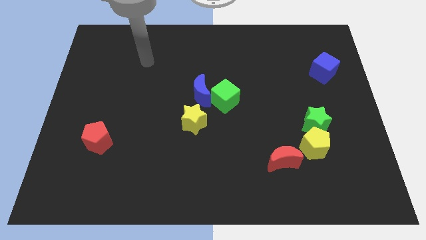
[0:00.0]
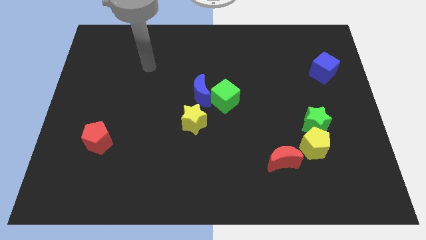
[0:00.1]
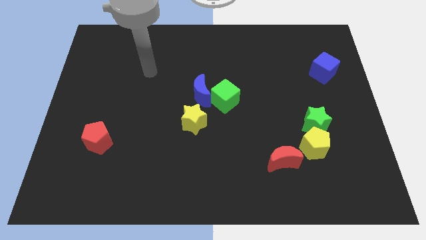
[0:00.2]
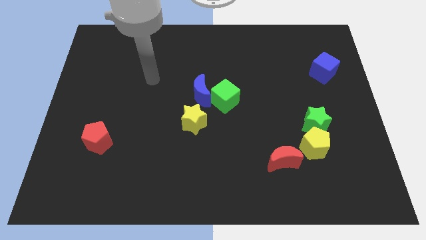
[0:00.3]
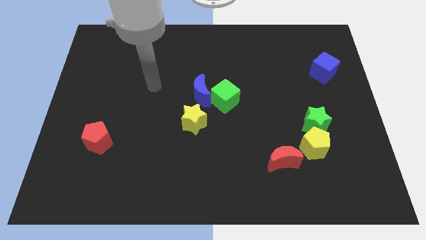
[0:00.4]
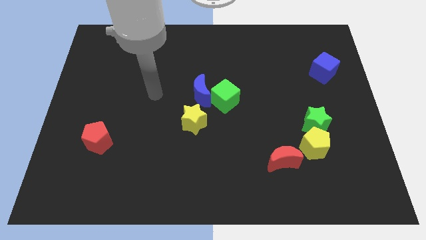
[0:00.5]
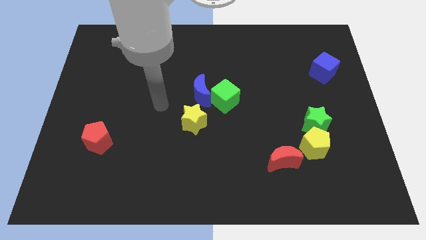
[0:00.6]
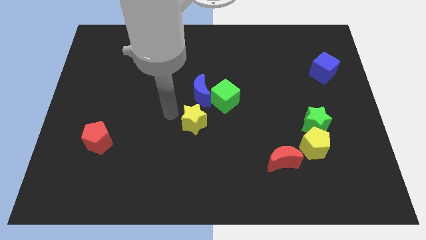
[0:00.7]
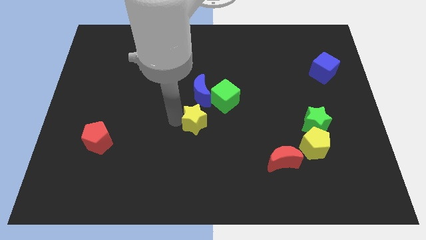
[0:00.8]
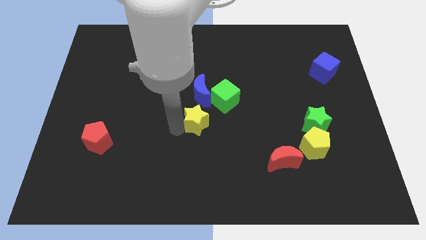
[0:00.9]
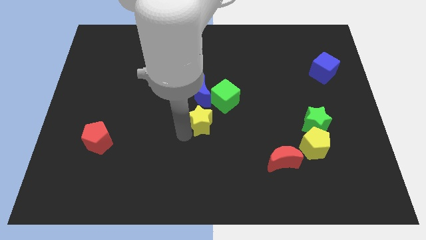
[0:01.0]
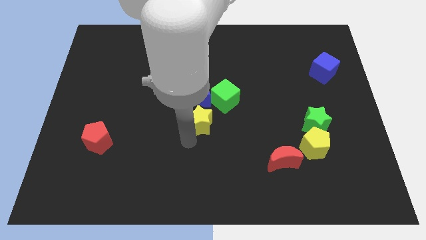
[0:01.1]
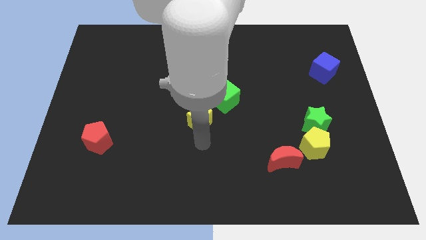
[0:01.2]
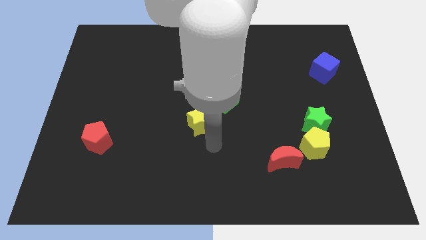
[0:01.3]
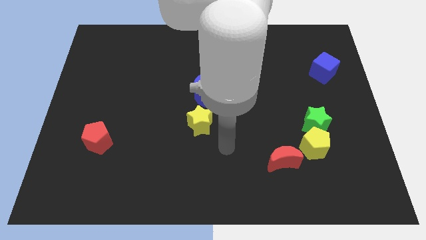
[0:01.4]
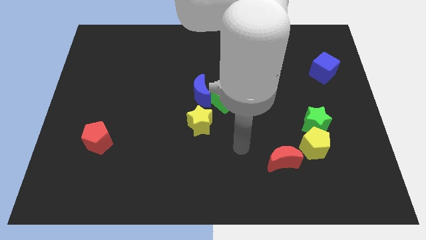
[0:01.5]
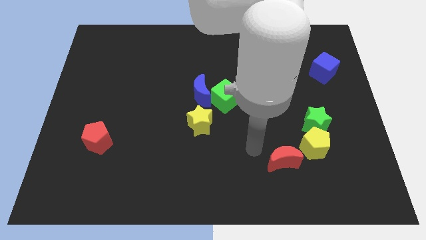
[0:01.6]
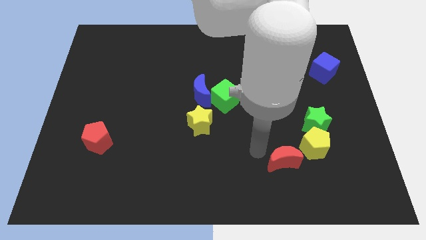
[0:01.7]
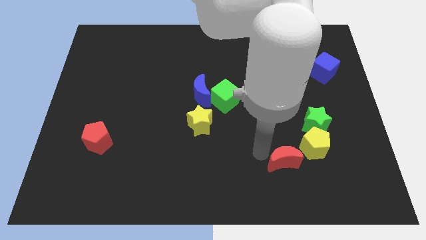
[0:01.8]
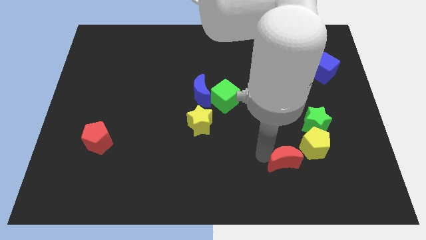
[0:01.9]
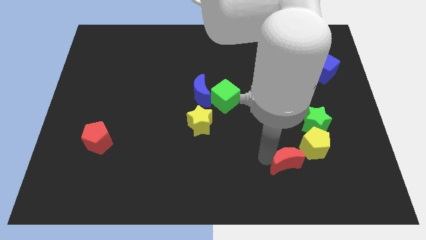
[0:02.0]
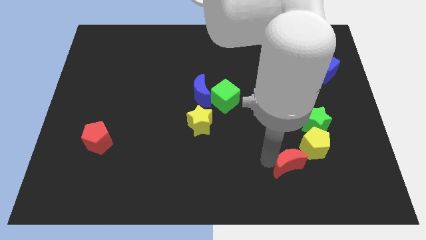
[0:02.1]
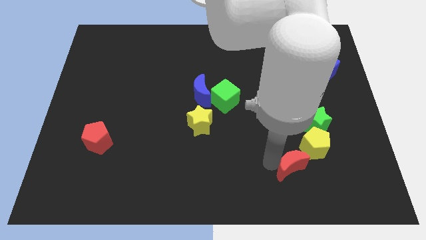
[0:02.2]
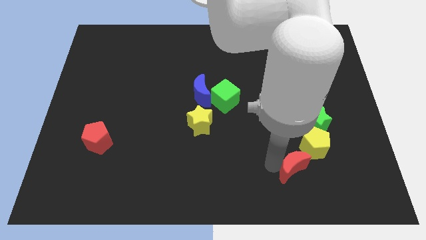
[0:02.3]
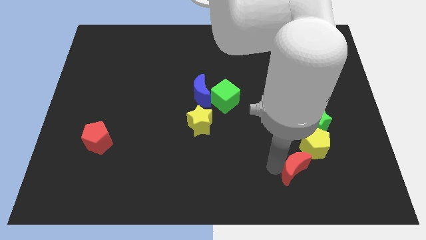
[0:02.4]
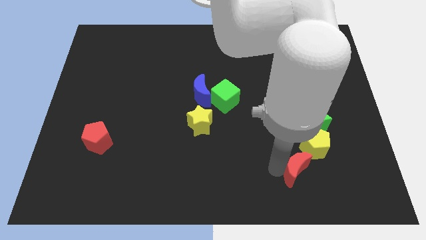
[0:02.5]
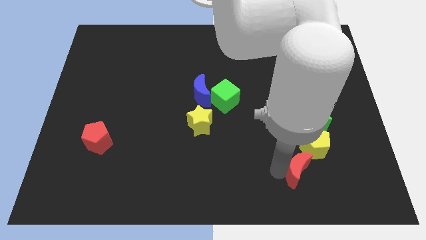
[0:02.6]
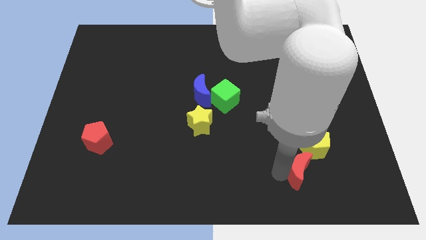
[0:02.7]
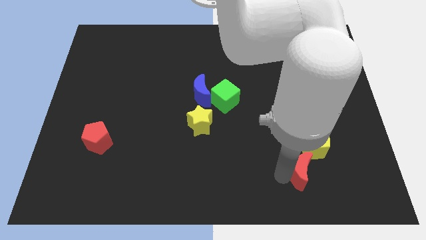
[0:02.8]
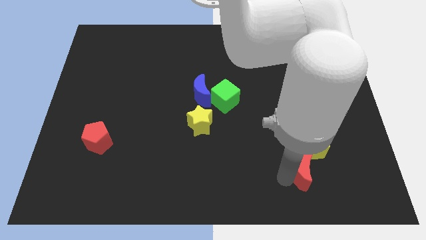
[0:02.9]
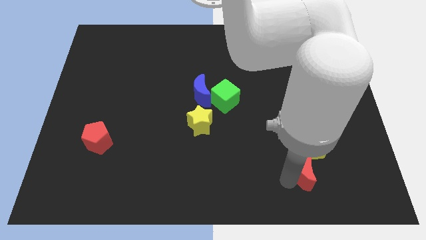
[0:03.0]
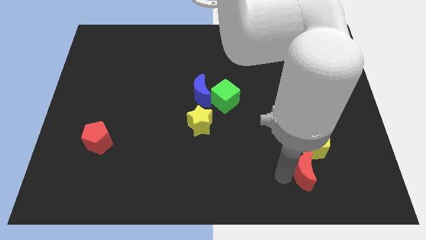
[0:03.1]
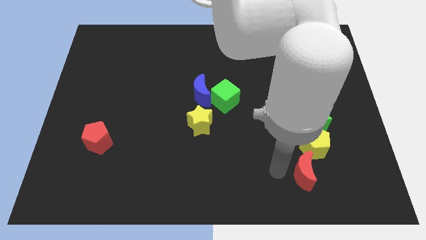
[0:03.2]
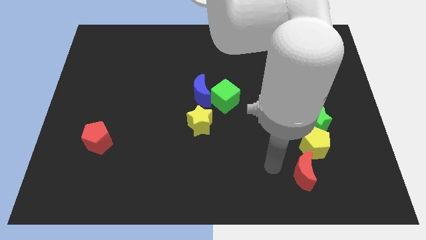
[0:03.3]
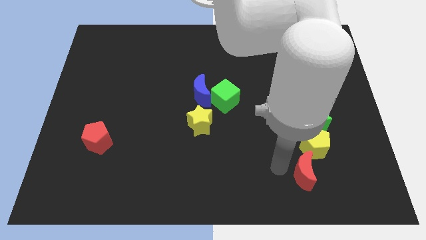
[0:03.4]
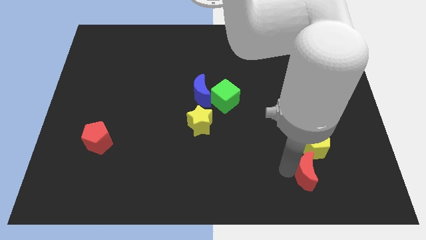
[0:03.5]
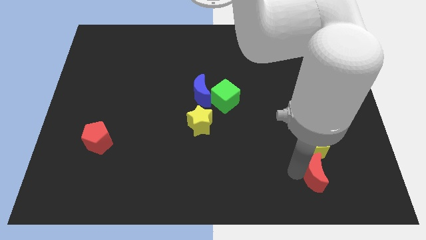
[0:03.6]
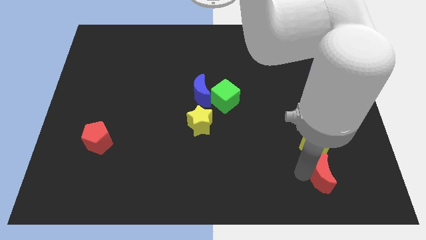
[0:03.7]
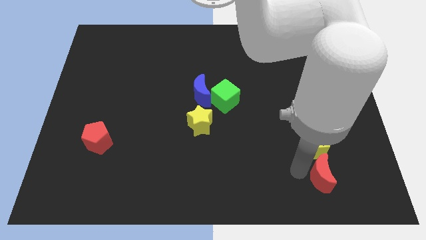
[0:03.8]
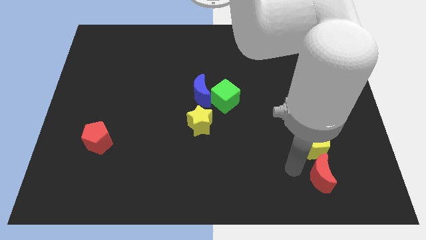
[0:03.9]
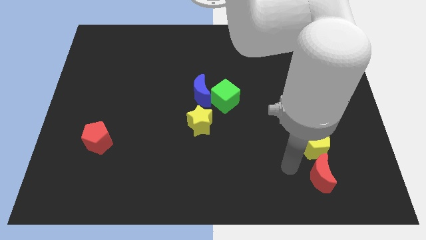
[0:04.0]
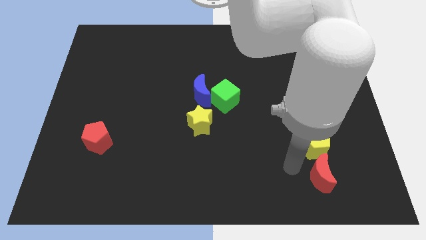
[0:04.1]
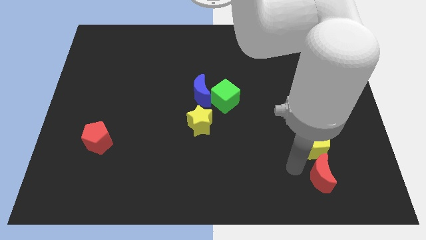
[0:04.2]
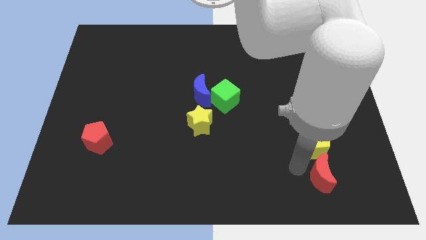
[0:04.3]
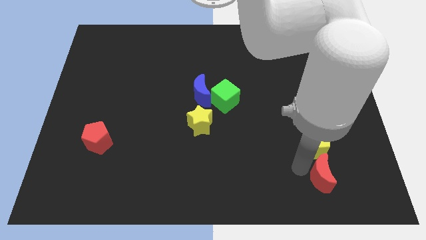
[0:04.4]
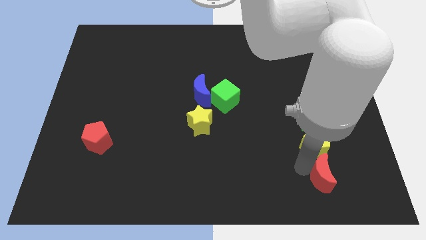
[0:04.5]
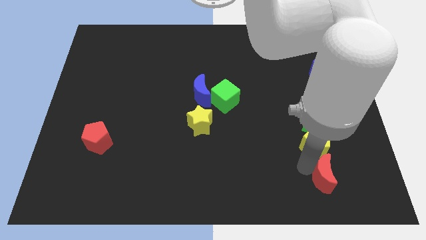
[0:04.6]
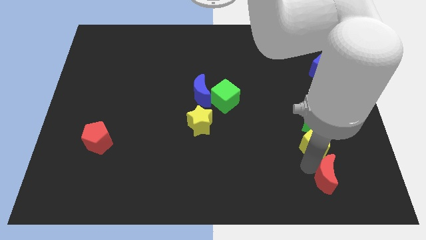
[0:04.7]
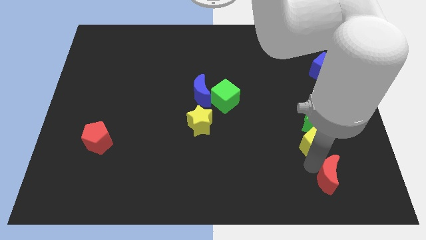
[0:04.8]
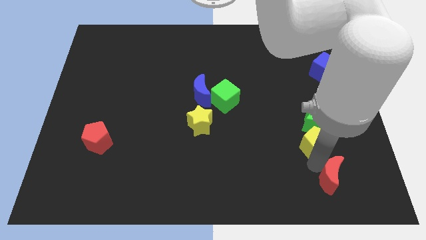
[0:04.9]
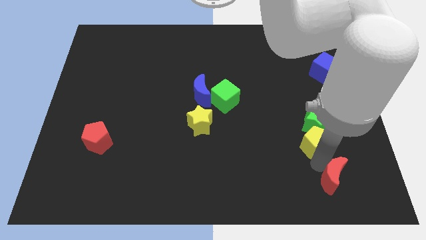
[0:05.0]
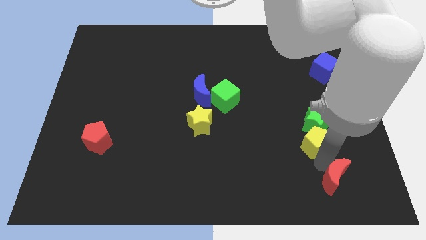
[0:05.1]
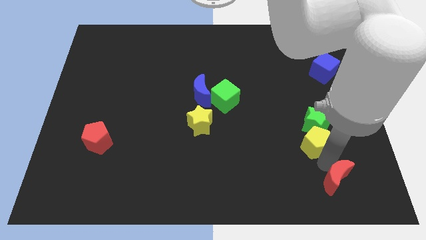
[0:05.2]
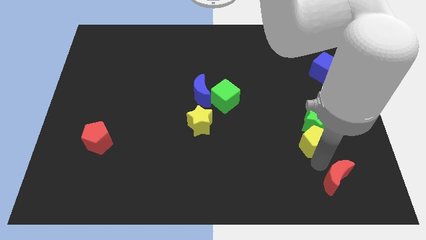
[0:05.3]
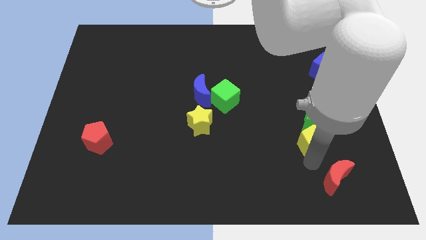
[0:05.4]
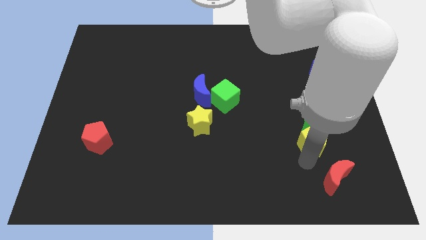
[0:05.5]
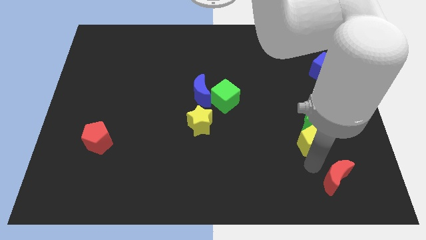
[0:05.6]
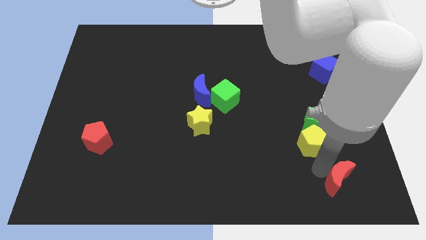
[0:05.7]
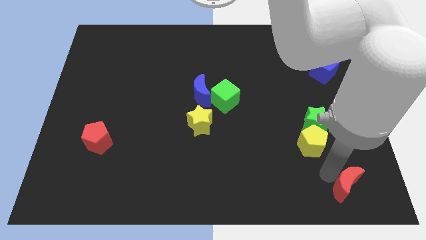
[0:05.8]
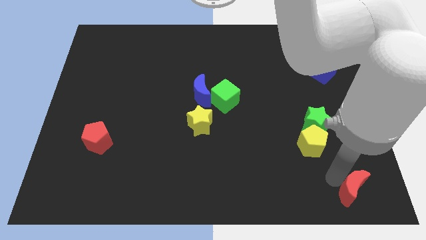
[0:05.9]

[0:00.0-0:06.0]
put the red moon to the bottom right of the board
